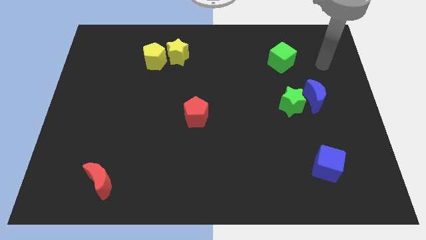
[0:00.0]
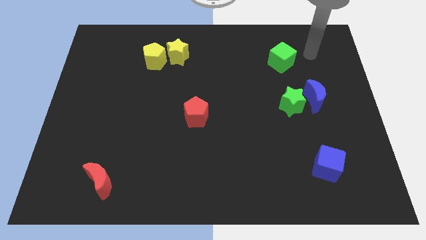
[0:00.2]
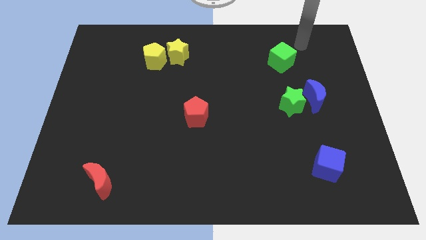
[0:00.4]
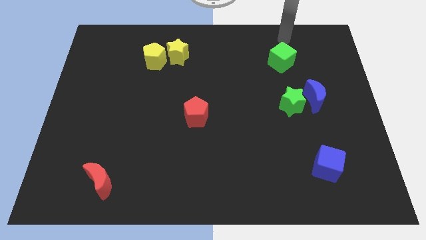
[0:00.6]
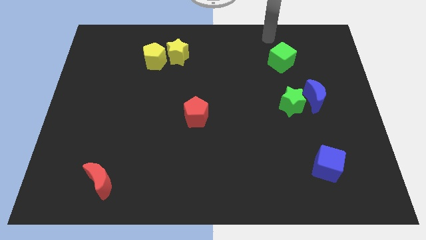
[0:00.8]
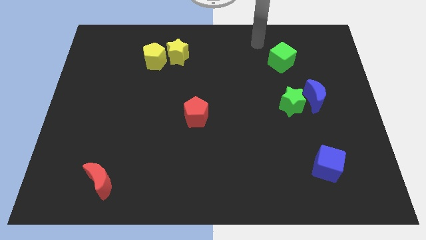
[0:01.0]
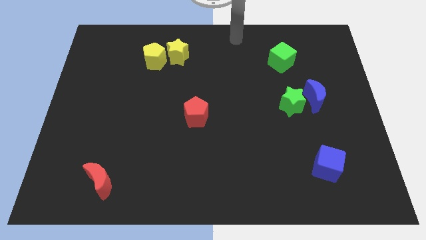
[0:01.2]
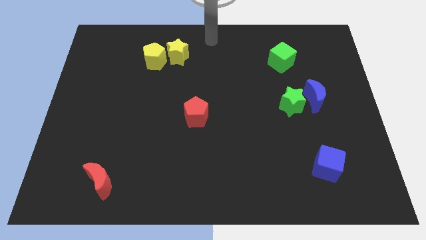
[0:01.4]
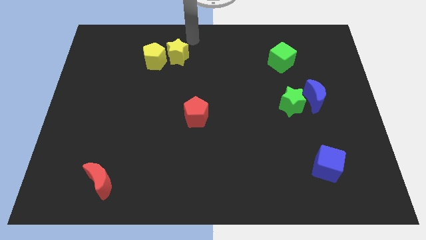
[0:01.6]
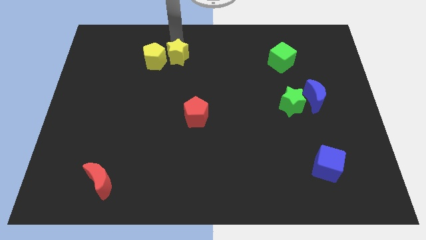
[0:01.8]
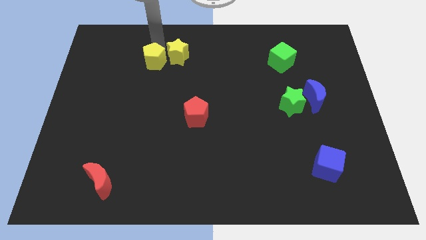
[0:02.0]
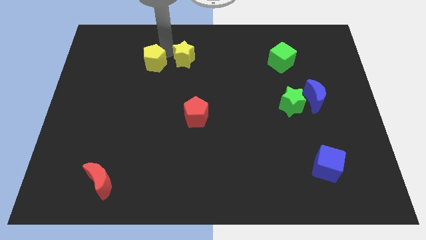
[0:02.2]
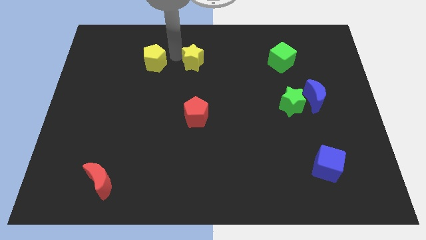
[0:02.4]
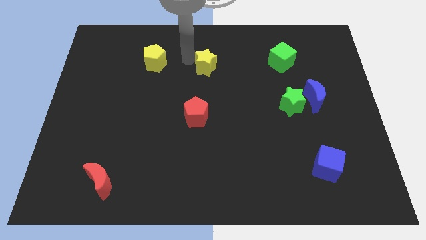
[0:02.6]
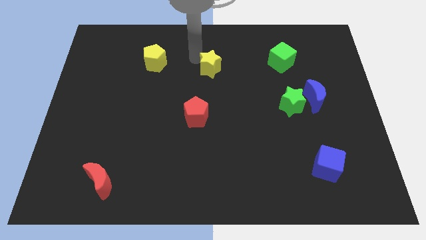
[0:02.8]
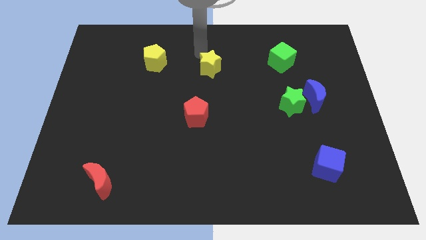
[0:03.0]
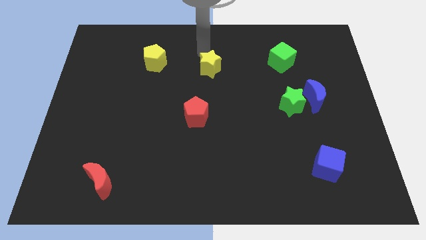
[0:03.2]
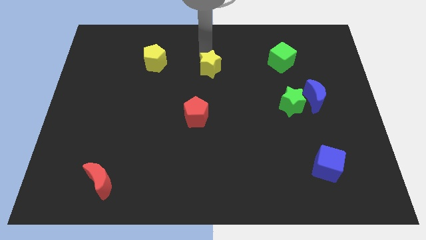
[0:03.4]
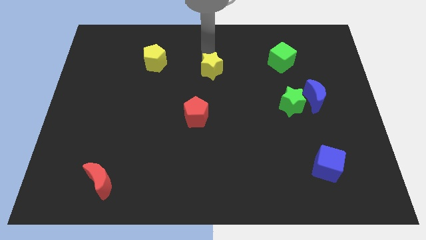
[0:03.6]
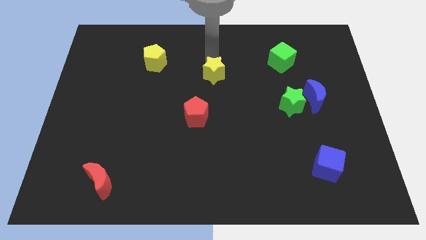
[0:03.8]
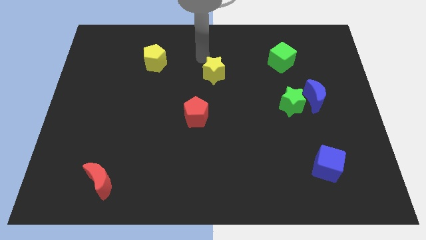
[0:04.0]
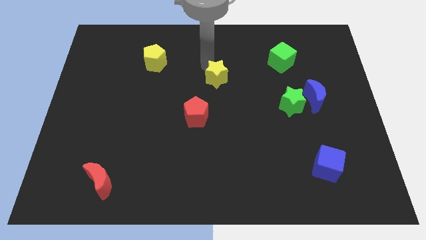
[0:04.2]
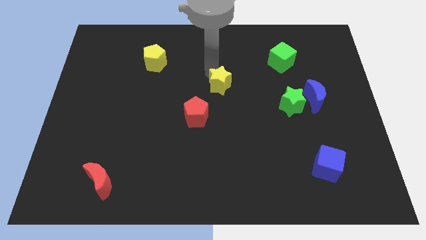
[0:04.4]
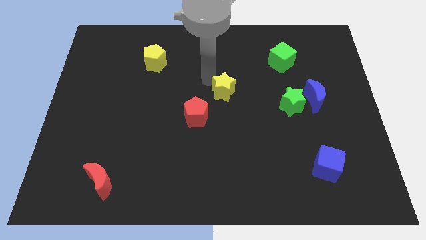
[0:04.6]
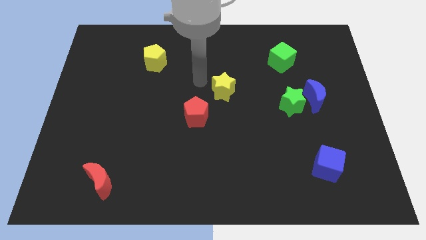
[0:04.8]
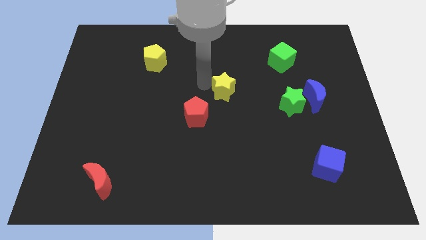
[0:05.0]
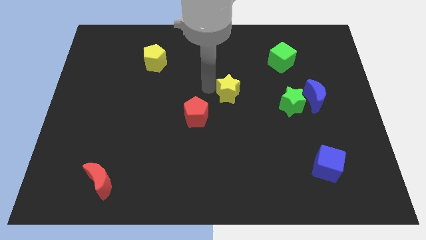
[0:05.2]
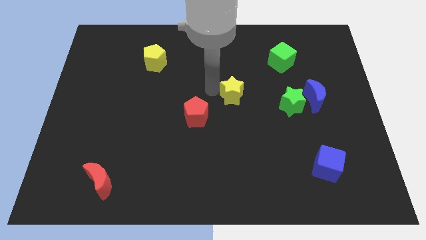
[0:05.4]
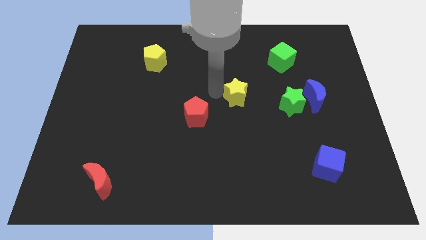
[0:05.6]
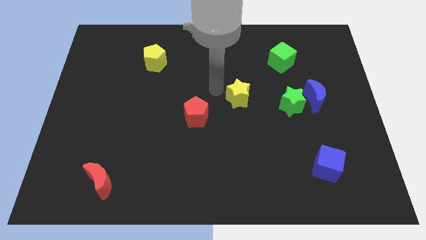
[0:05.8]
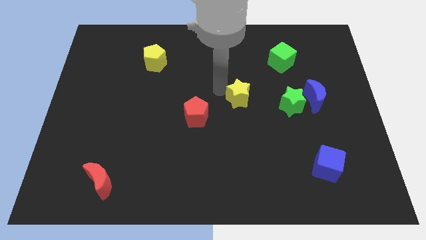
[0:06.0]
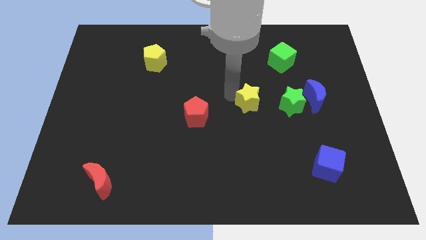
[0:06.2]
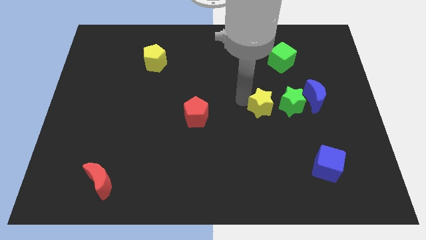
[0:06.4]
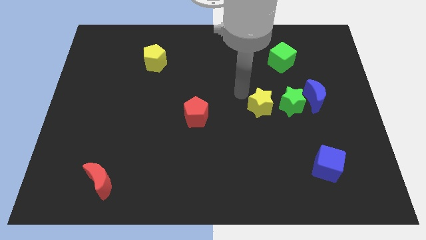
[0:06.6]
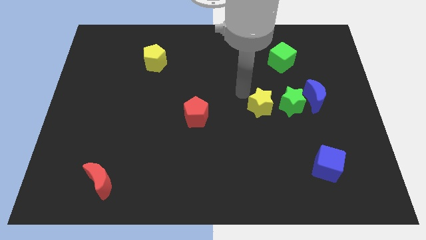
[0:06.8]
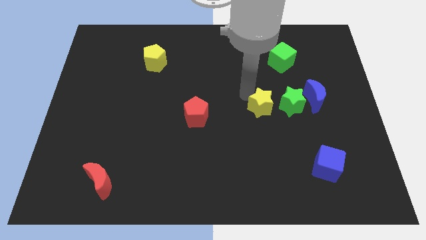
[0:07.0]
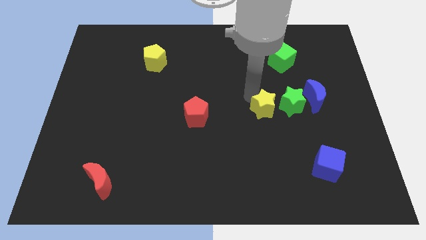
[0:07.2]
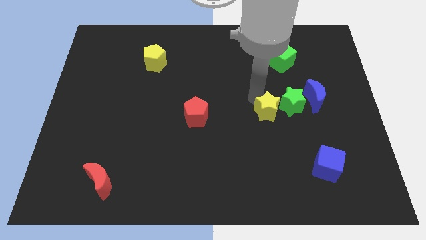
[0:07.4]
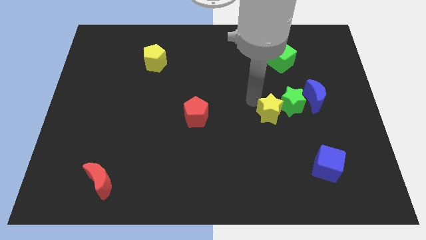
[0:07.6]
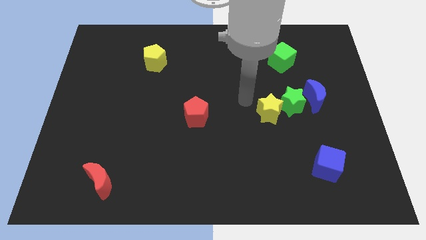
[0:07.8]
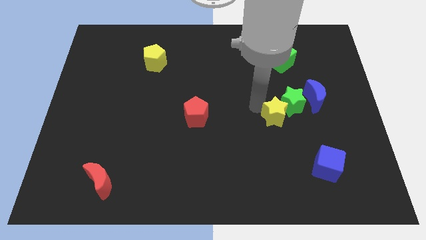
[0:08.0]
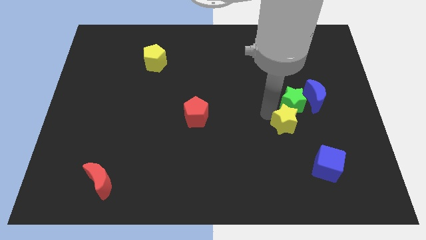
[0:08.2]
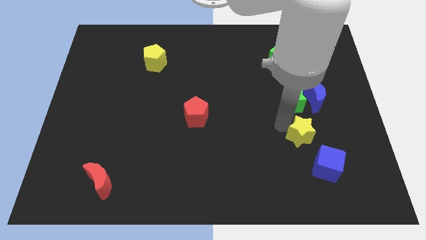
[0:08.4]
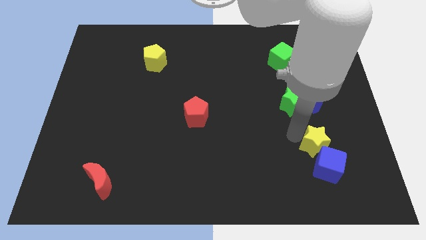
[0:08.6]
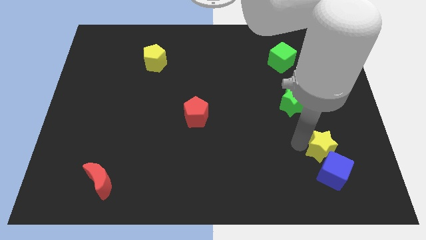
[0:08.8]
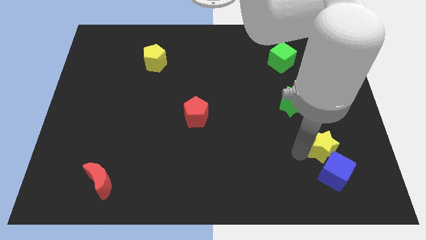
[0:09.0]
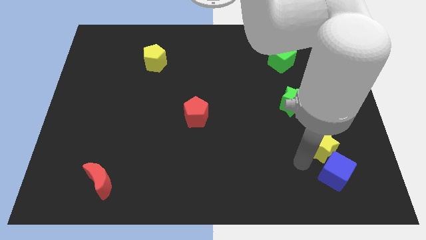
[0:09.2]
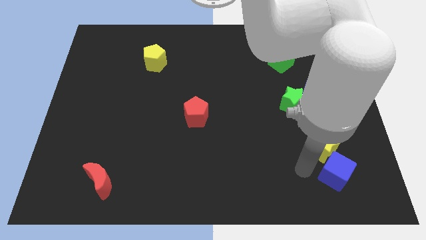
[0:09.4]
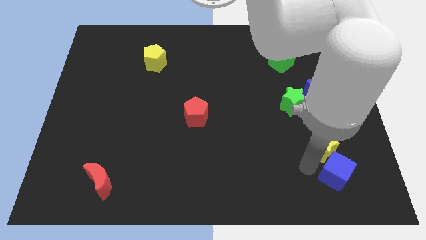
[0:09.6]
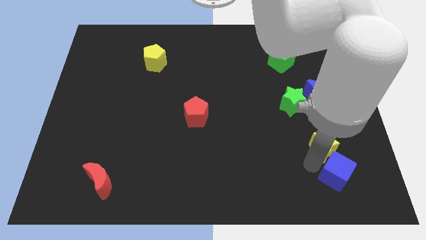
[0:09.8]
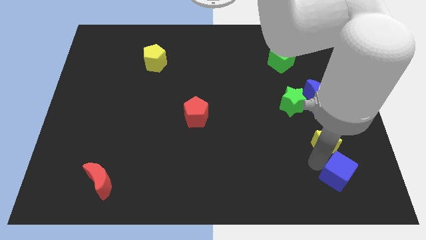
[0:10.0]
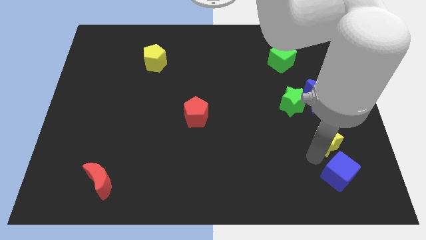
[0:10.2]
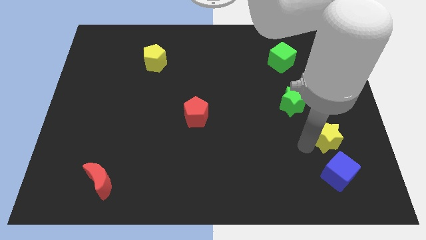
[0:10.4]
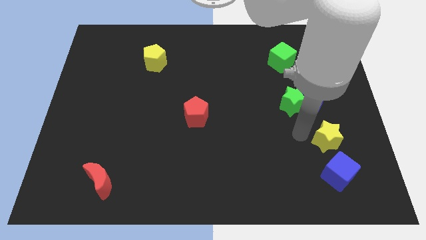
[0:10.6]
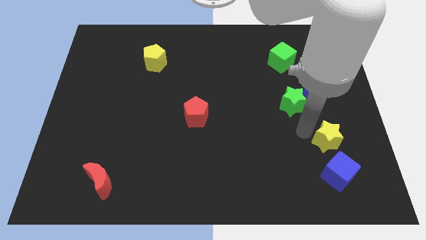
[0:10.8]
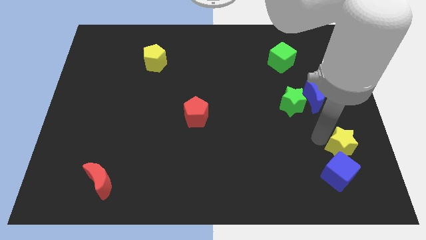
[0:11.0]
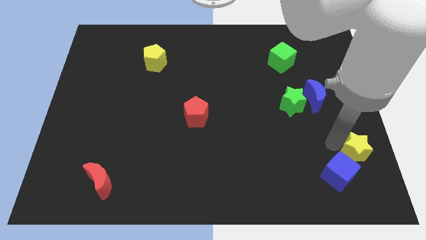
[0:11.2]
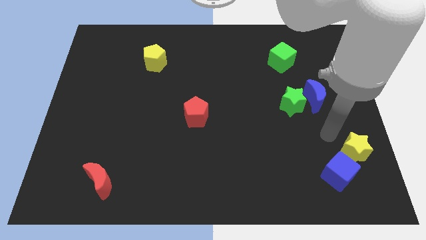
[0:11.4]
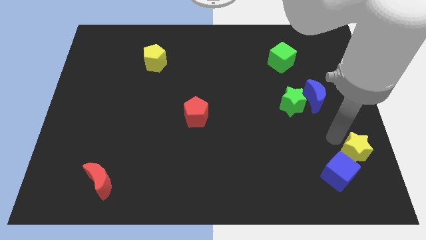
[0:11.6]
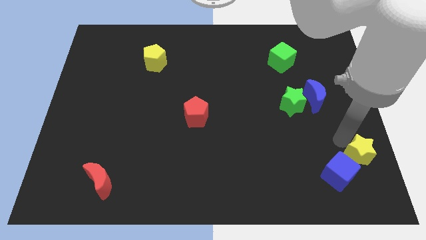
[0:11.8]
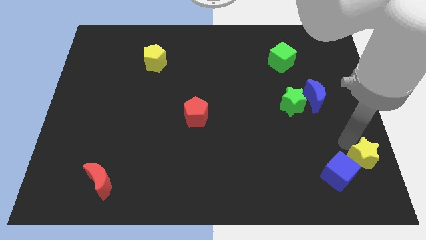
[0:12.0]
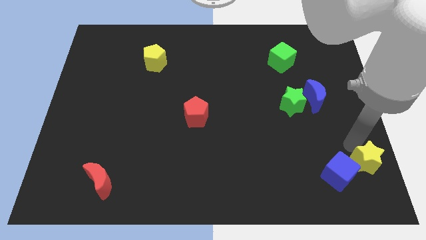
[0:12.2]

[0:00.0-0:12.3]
slide the yellow star to the bottom right corner

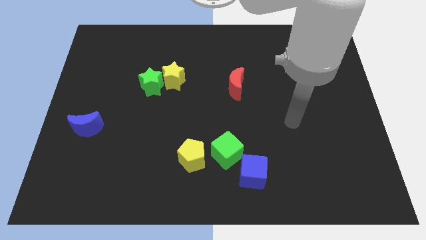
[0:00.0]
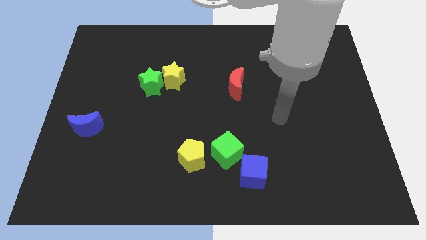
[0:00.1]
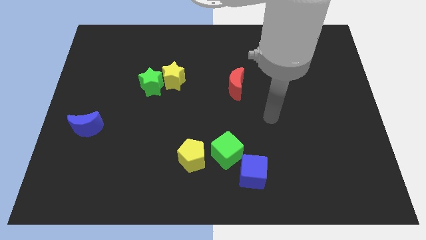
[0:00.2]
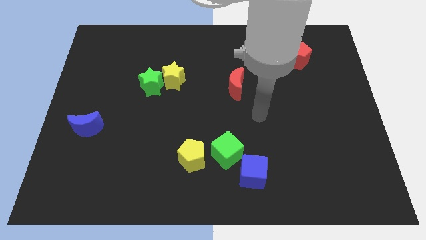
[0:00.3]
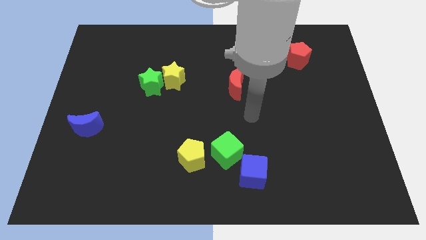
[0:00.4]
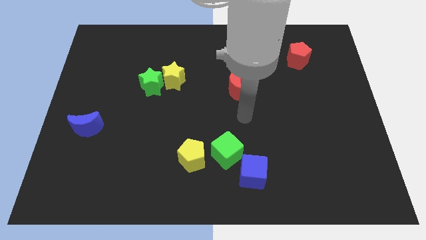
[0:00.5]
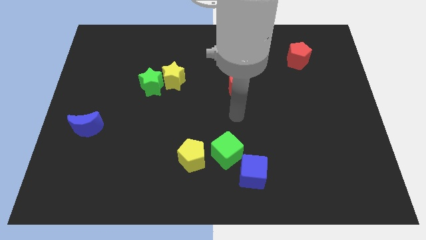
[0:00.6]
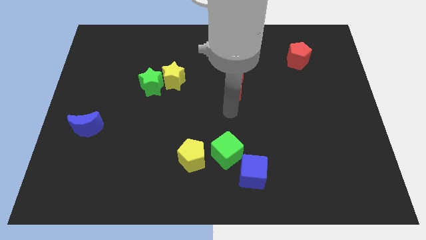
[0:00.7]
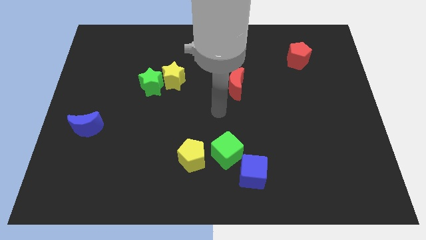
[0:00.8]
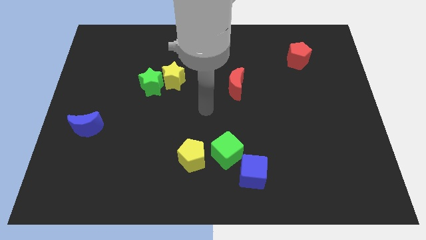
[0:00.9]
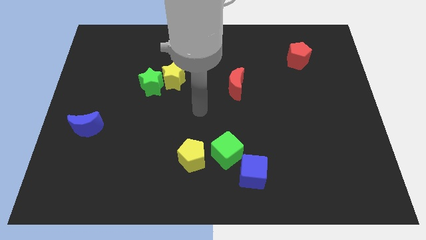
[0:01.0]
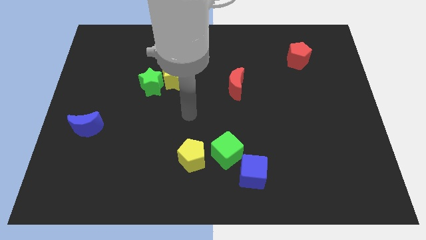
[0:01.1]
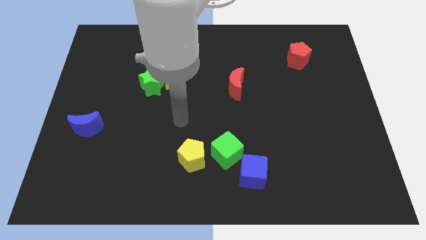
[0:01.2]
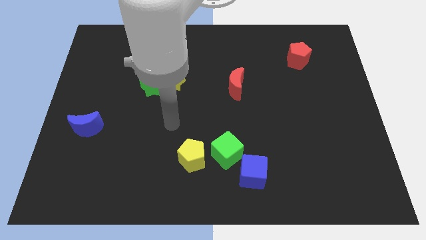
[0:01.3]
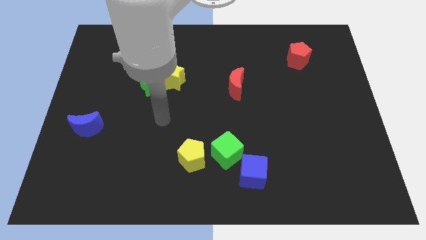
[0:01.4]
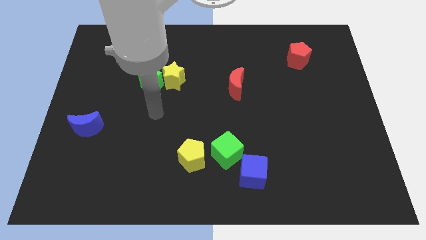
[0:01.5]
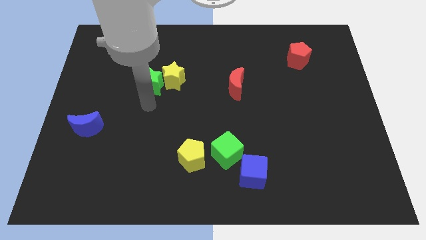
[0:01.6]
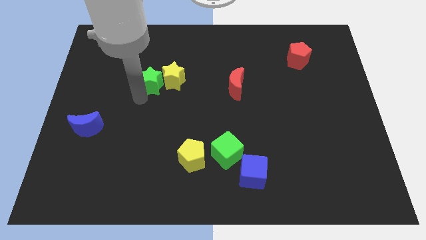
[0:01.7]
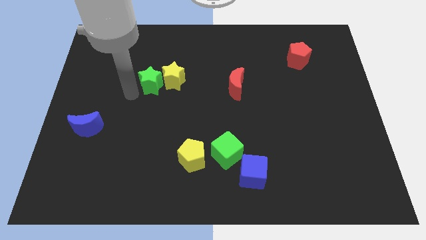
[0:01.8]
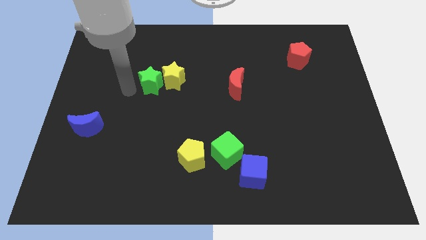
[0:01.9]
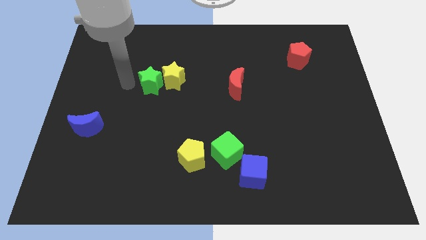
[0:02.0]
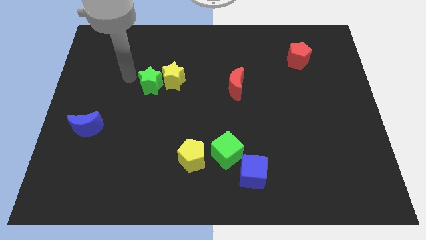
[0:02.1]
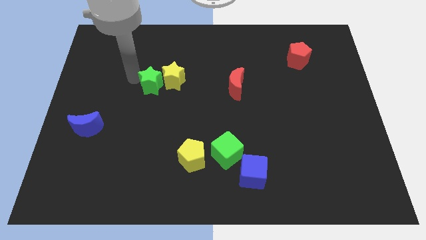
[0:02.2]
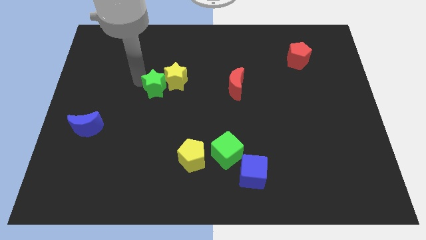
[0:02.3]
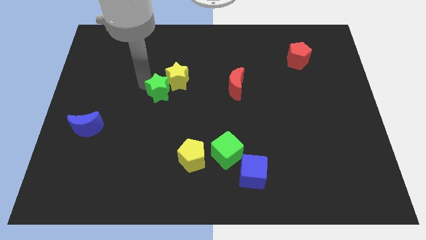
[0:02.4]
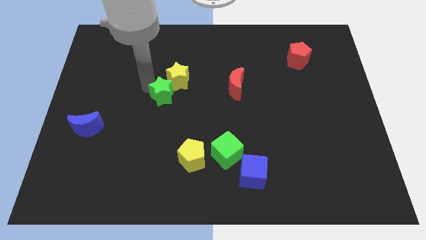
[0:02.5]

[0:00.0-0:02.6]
push the green star to the center
